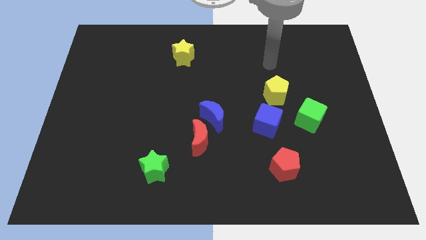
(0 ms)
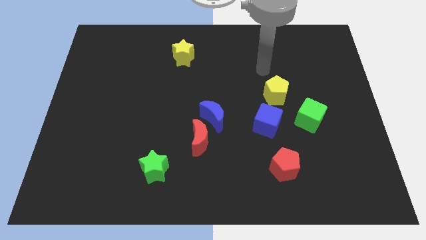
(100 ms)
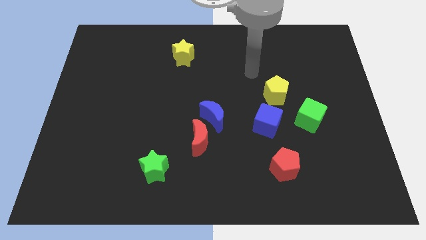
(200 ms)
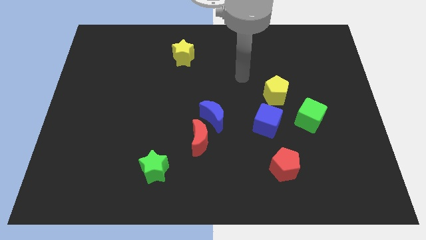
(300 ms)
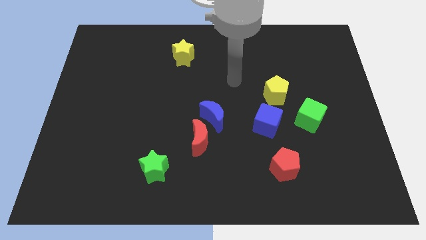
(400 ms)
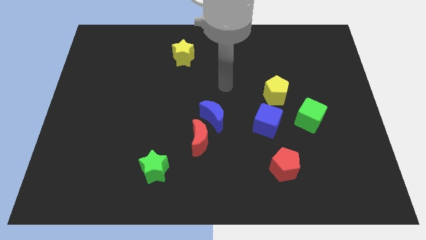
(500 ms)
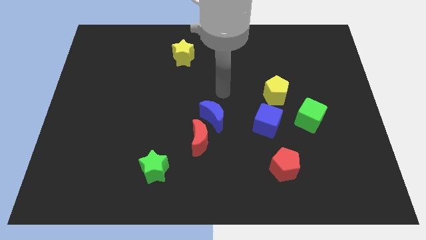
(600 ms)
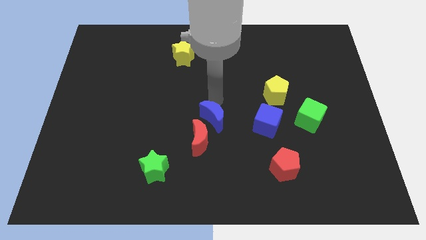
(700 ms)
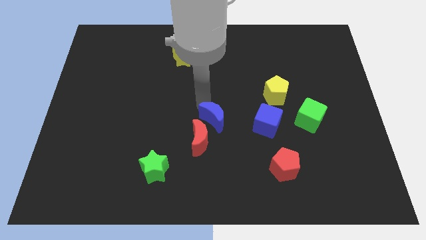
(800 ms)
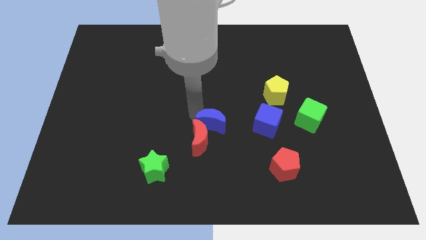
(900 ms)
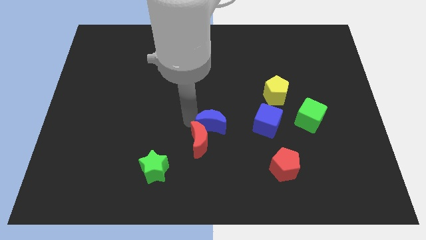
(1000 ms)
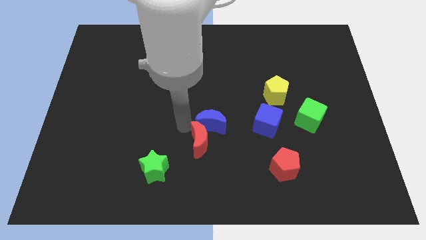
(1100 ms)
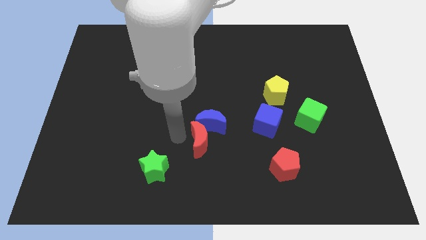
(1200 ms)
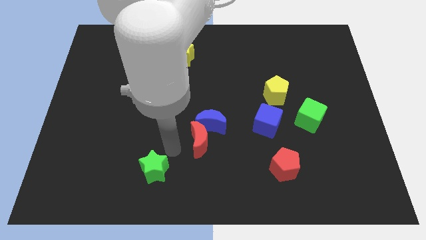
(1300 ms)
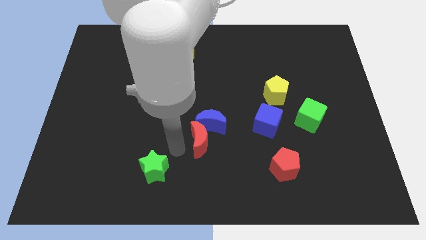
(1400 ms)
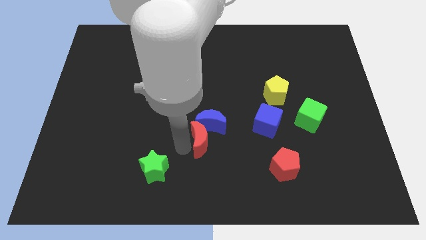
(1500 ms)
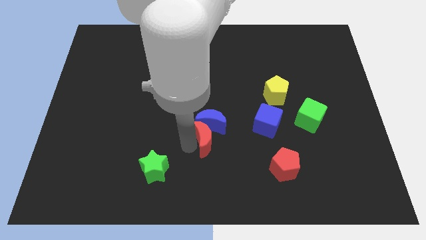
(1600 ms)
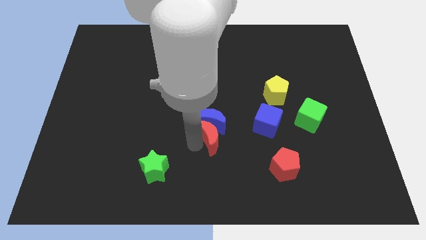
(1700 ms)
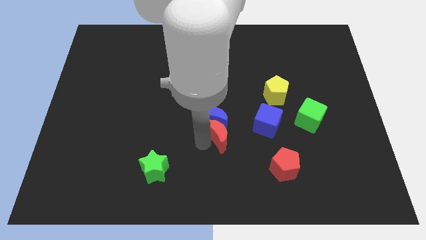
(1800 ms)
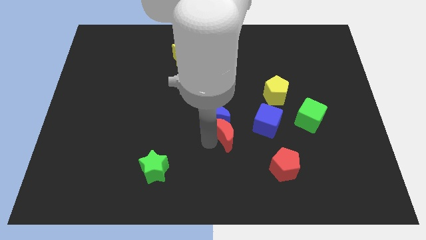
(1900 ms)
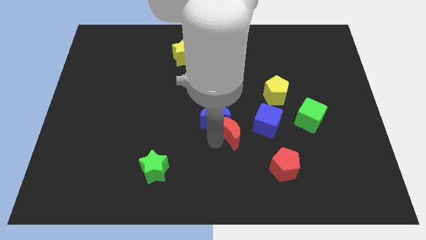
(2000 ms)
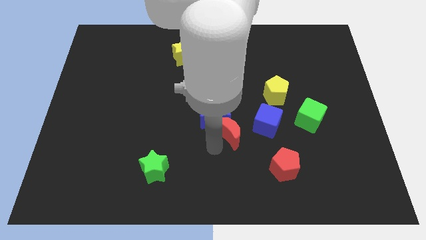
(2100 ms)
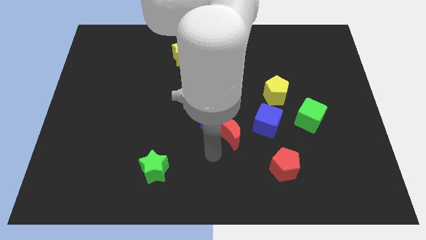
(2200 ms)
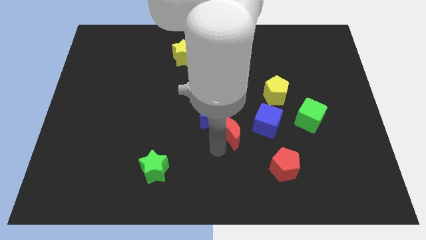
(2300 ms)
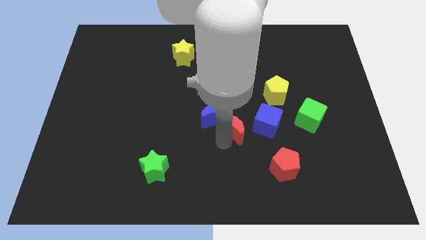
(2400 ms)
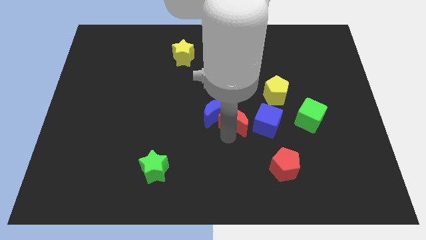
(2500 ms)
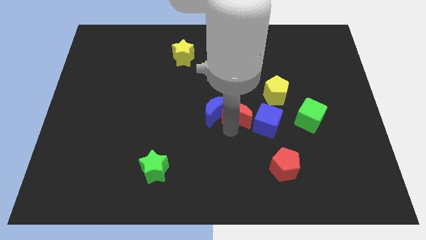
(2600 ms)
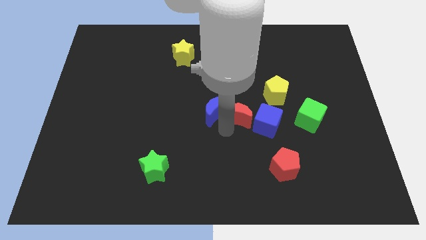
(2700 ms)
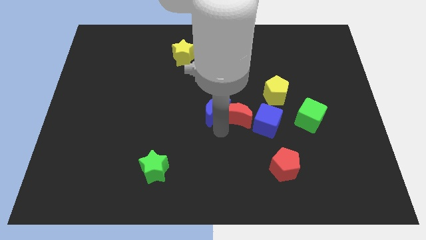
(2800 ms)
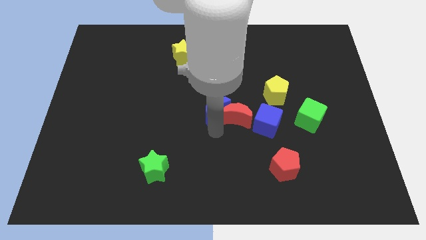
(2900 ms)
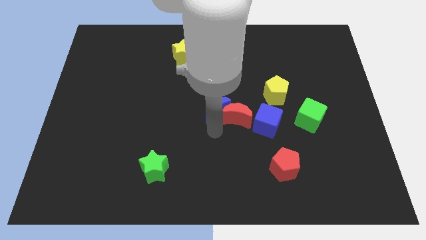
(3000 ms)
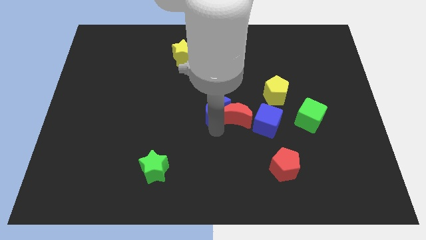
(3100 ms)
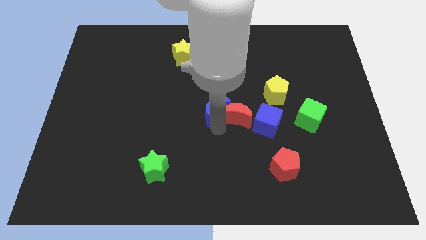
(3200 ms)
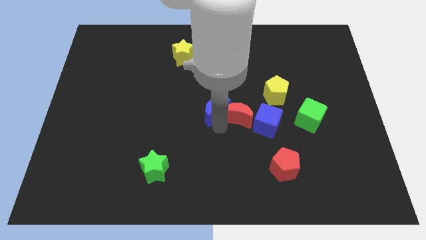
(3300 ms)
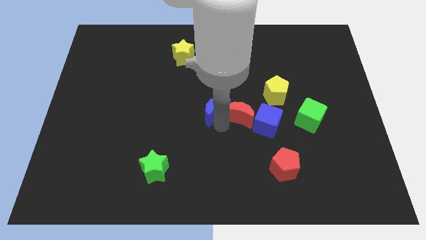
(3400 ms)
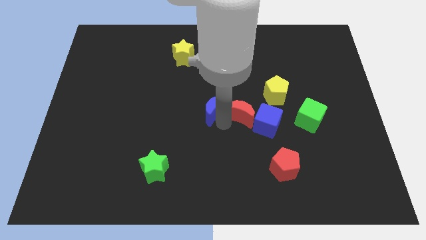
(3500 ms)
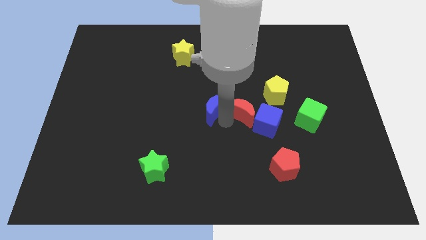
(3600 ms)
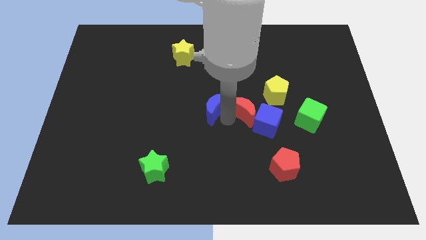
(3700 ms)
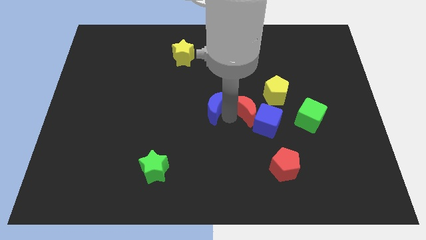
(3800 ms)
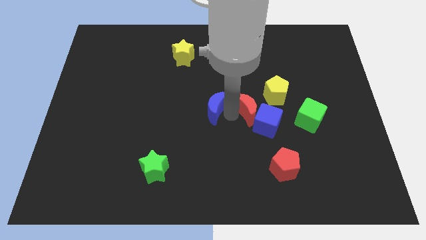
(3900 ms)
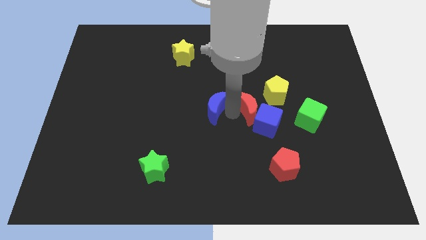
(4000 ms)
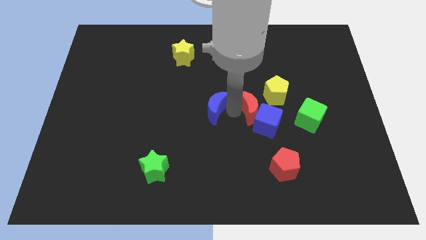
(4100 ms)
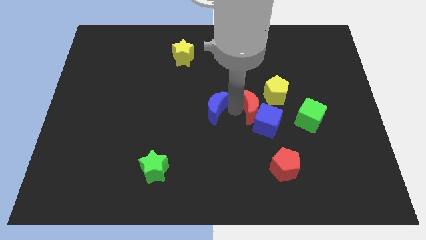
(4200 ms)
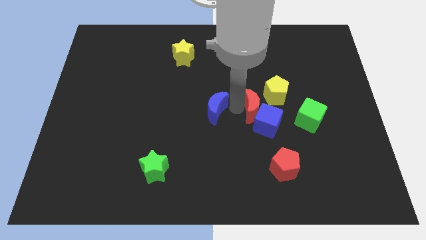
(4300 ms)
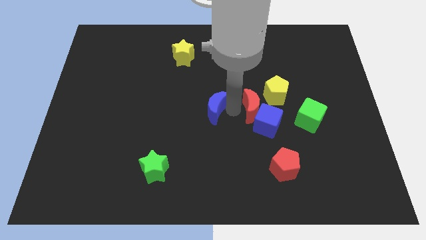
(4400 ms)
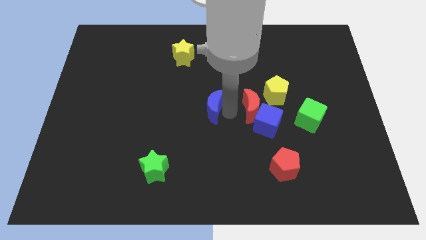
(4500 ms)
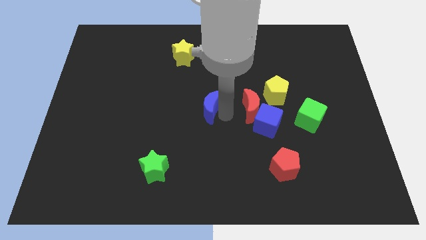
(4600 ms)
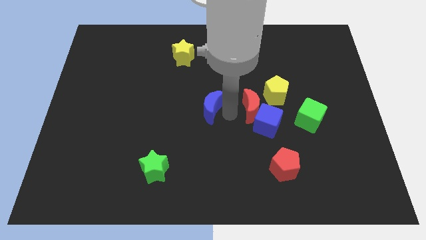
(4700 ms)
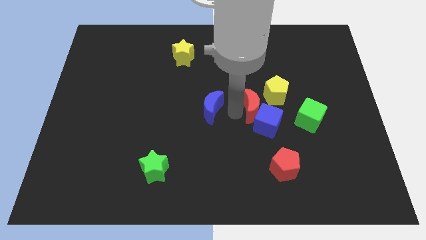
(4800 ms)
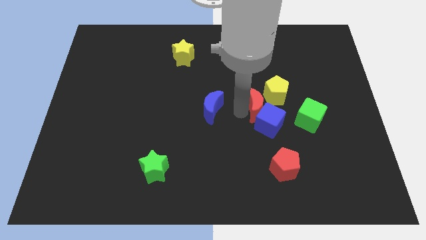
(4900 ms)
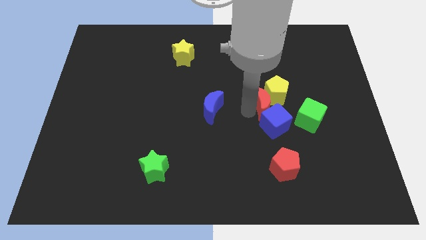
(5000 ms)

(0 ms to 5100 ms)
push the red moon next to the yellow pentagon

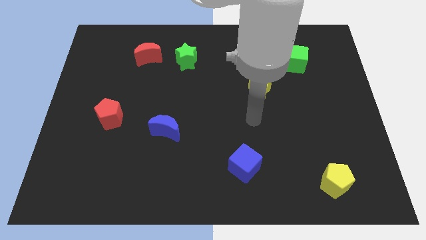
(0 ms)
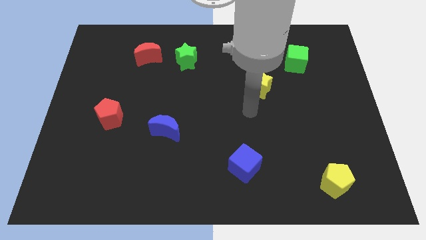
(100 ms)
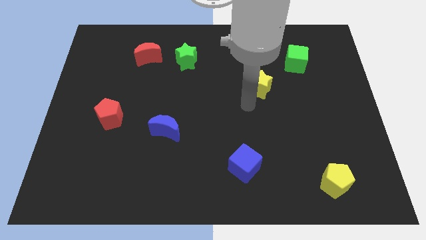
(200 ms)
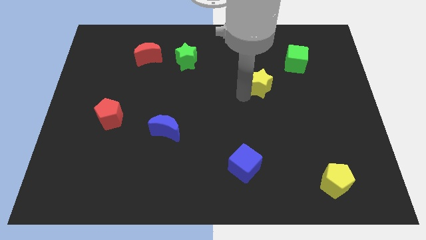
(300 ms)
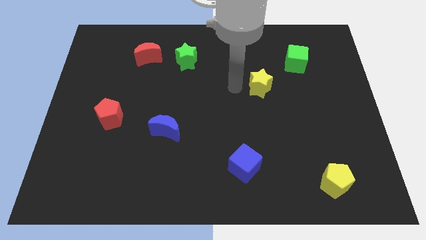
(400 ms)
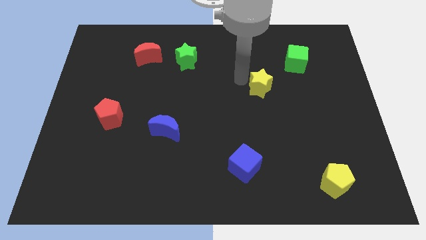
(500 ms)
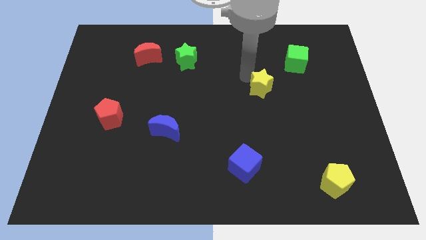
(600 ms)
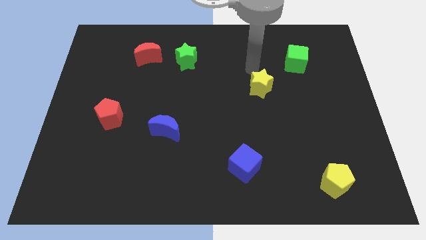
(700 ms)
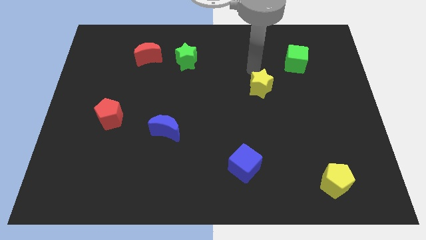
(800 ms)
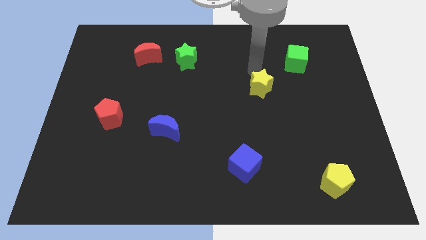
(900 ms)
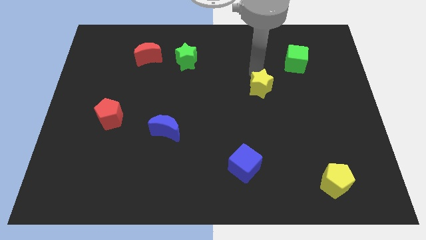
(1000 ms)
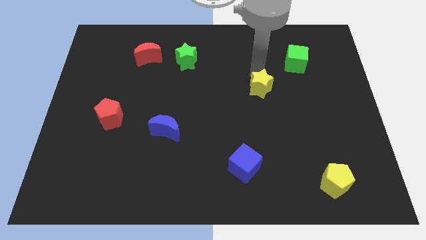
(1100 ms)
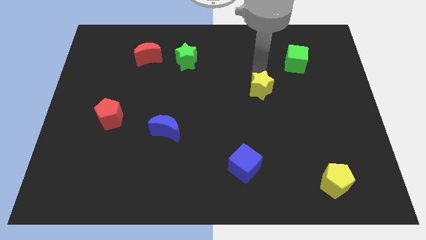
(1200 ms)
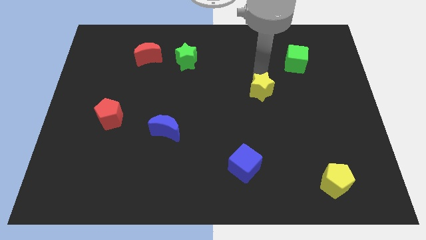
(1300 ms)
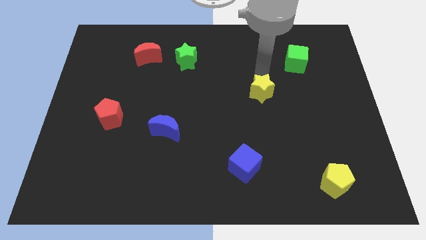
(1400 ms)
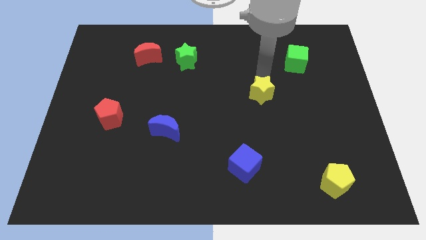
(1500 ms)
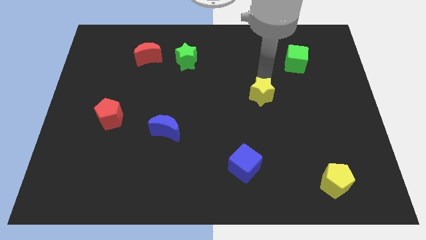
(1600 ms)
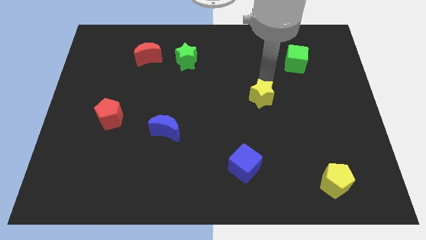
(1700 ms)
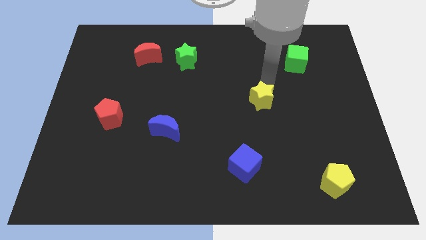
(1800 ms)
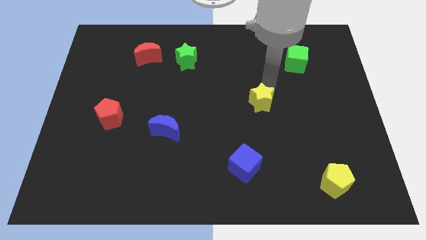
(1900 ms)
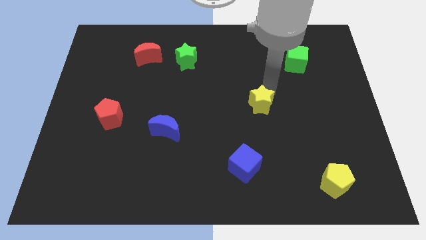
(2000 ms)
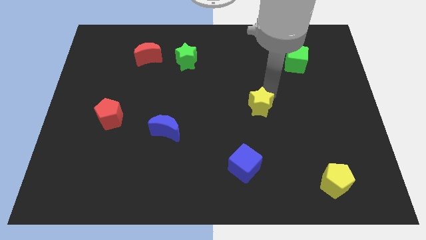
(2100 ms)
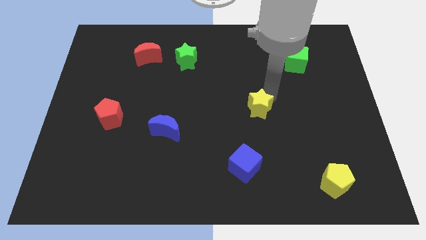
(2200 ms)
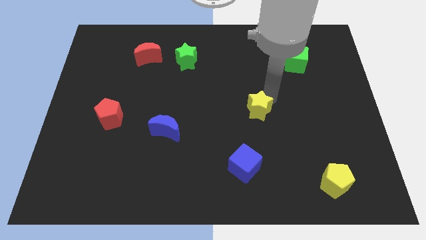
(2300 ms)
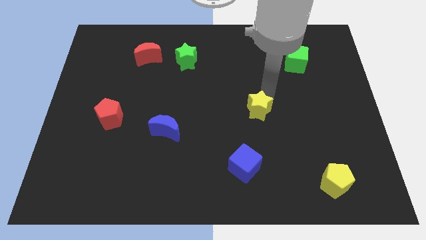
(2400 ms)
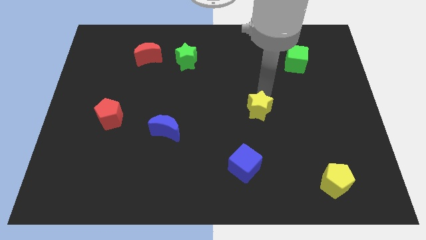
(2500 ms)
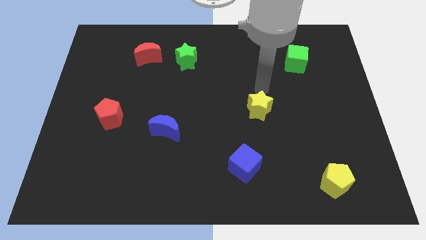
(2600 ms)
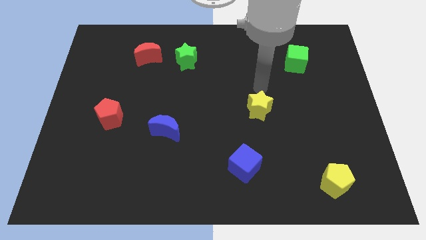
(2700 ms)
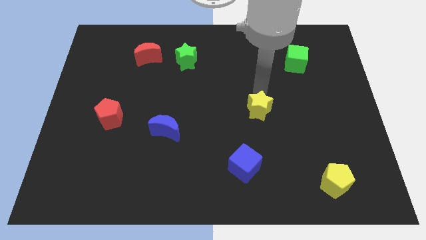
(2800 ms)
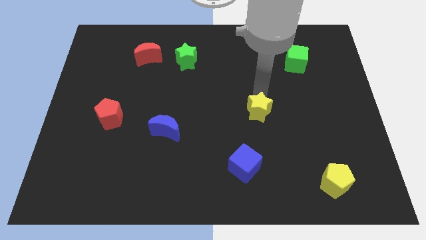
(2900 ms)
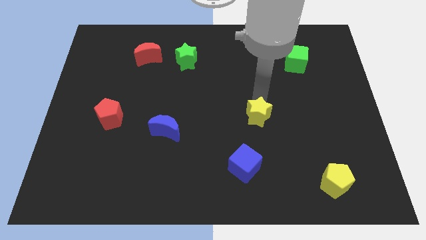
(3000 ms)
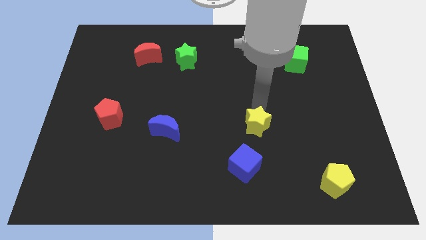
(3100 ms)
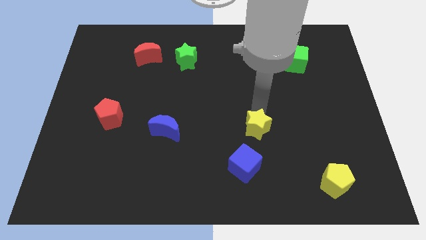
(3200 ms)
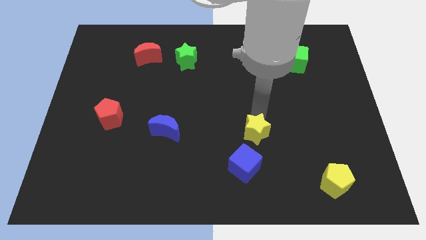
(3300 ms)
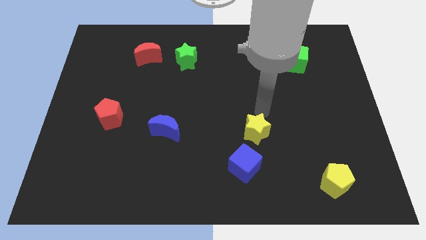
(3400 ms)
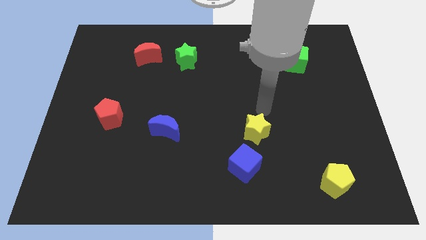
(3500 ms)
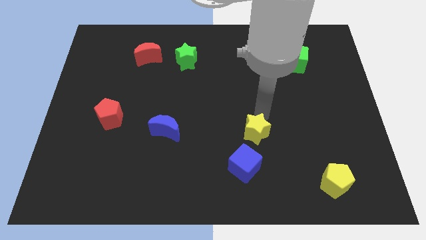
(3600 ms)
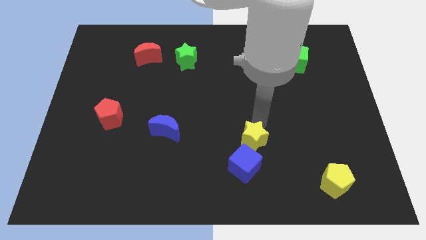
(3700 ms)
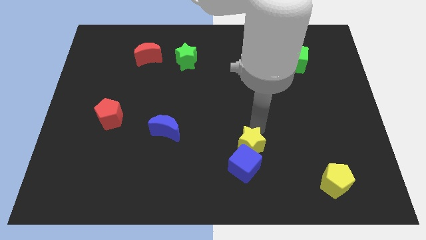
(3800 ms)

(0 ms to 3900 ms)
push the yellow star towards the blue cube
